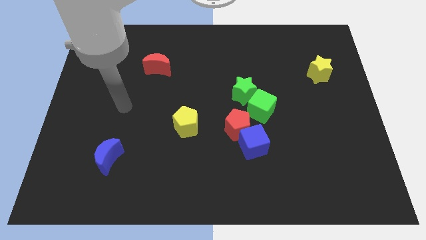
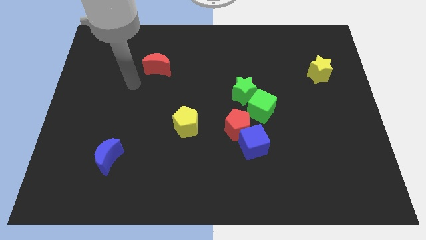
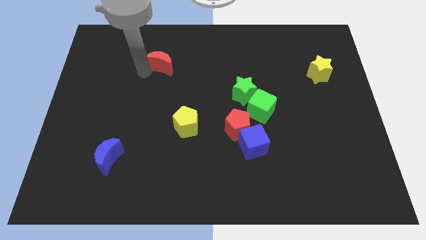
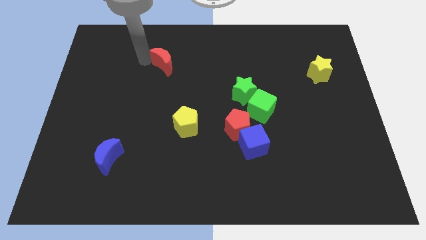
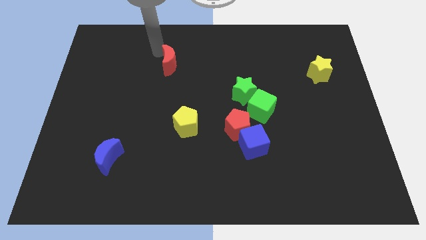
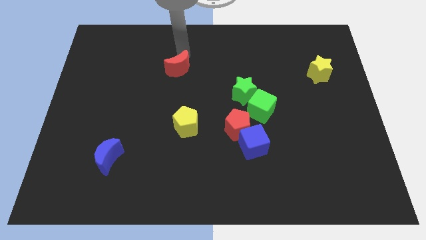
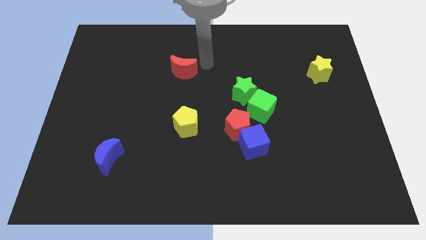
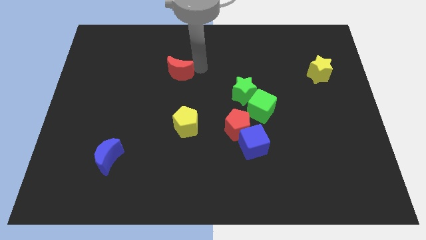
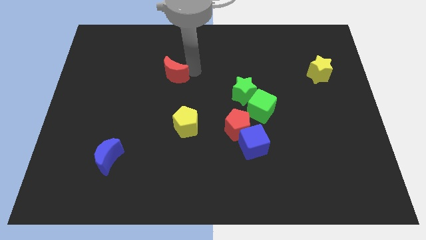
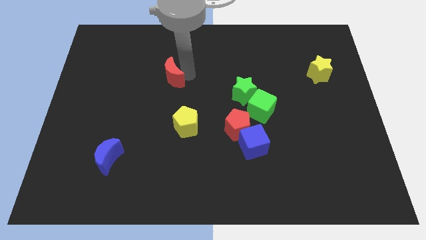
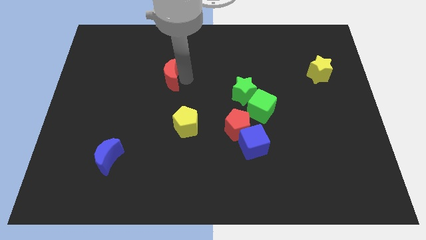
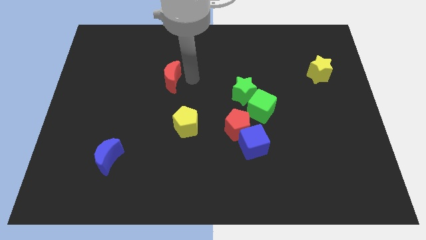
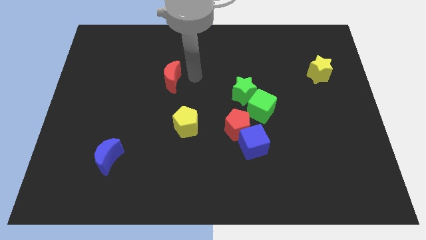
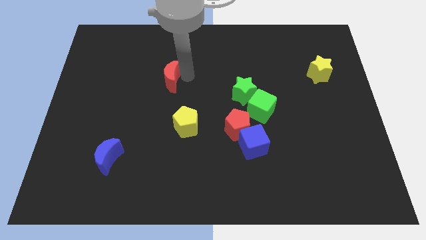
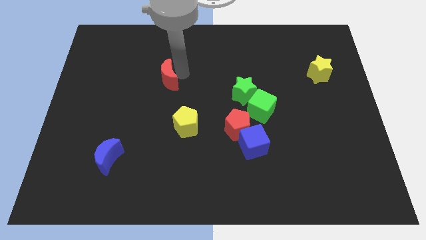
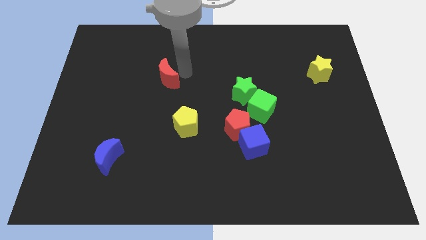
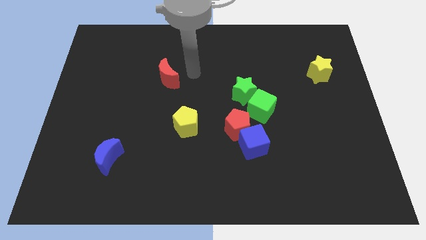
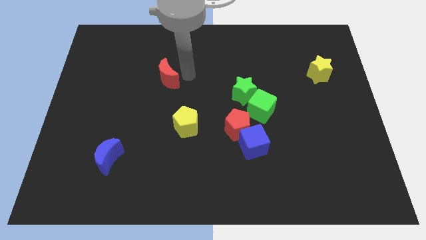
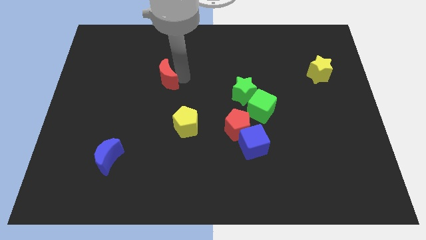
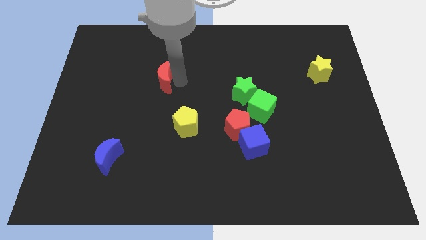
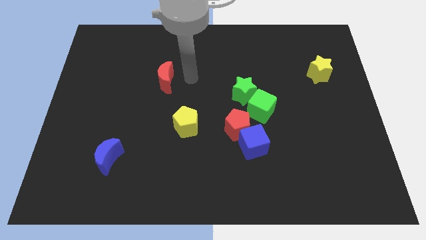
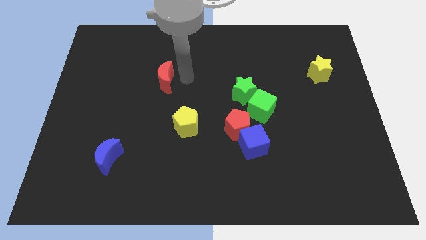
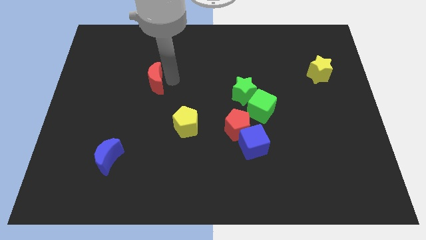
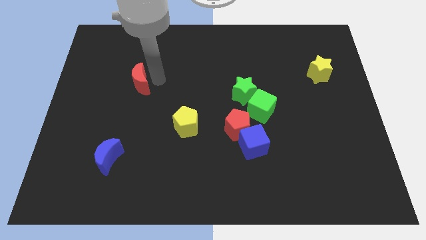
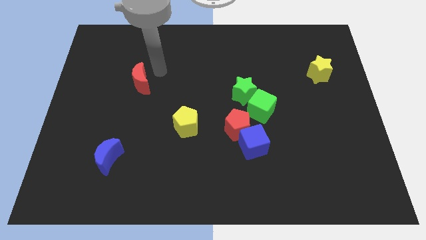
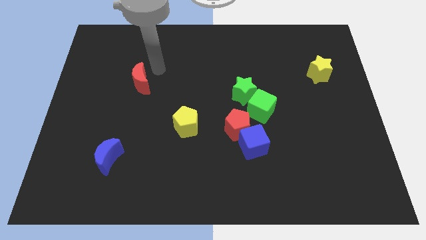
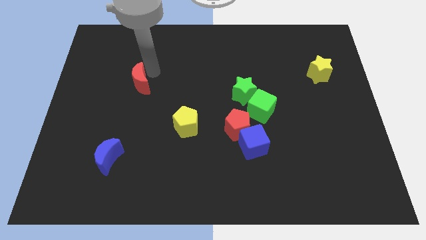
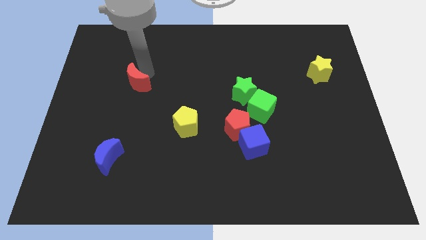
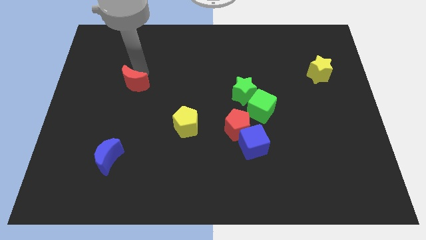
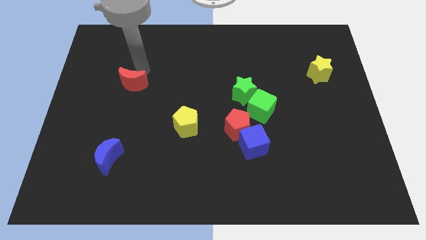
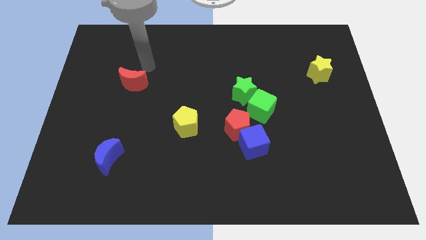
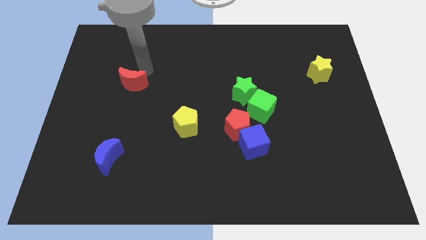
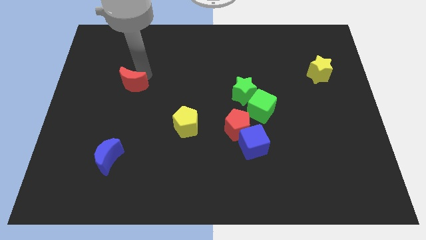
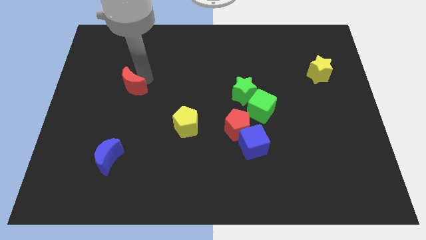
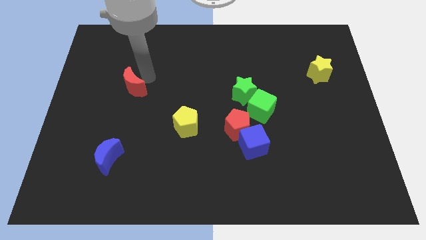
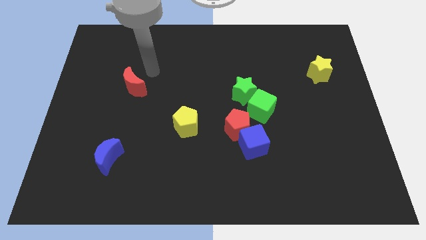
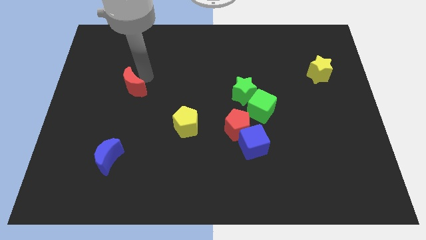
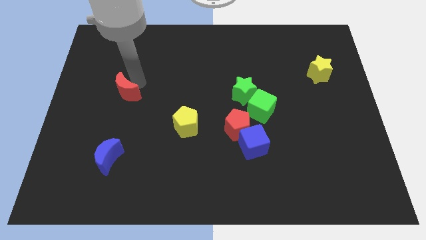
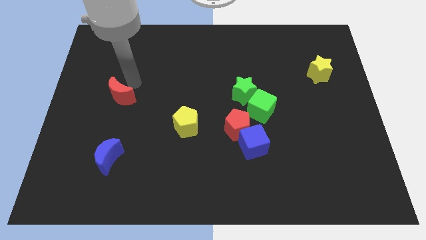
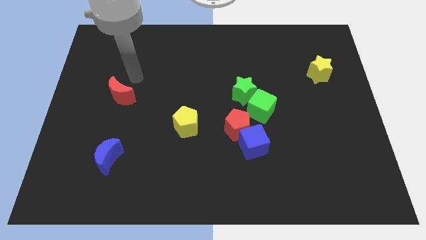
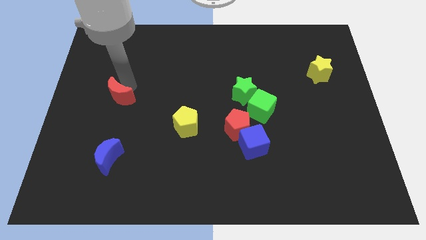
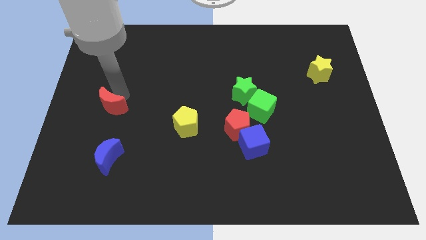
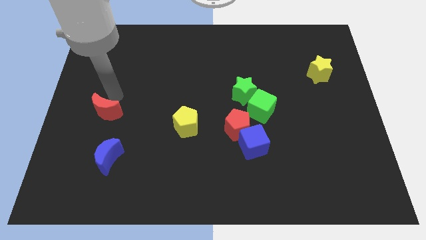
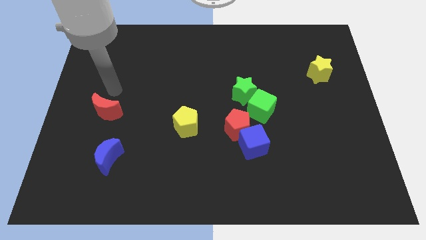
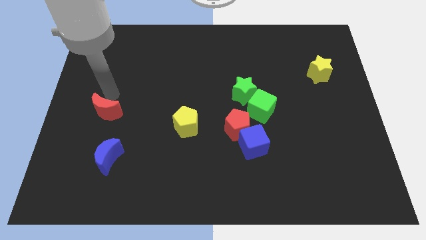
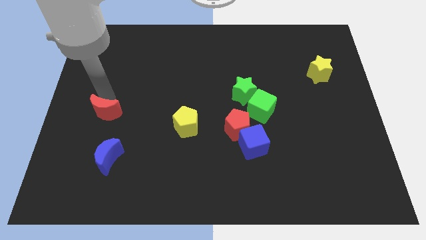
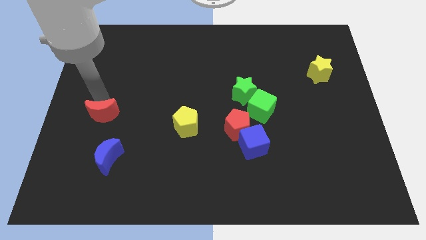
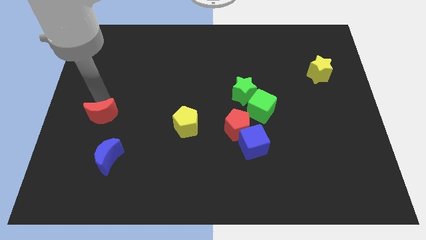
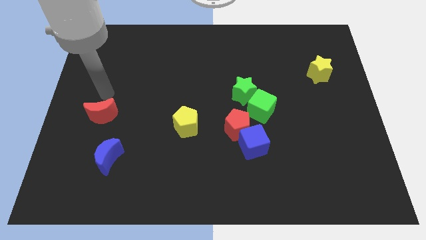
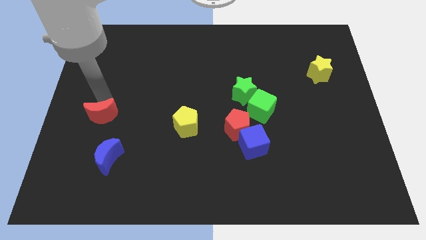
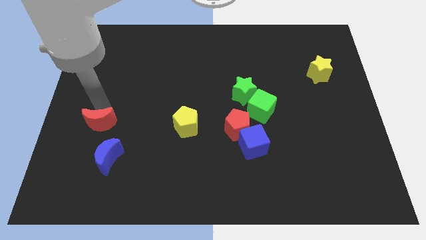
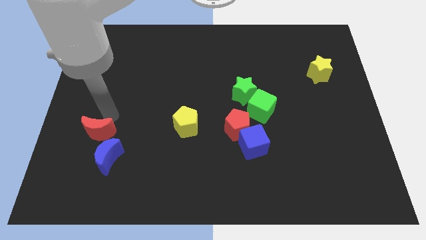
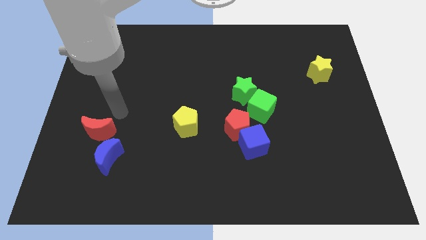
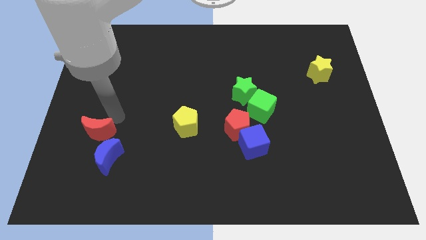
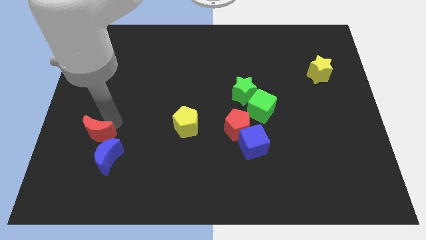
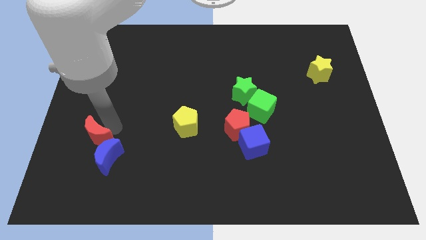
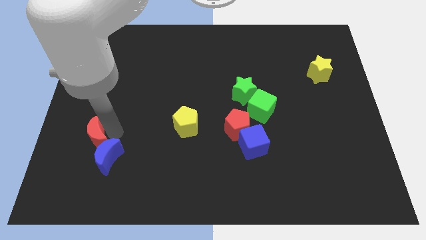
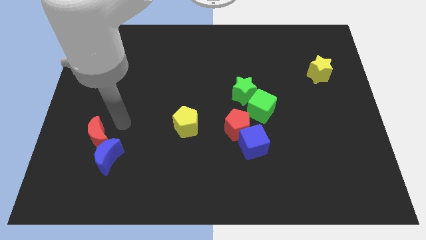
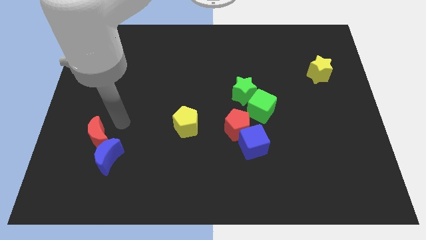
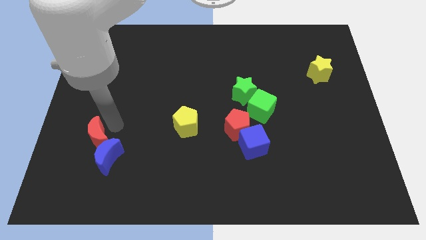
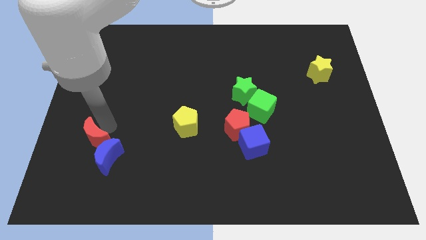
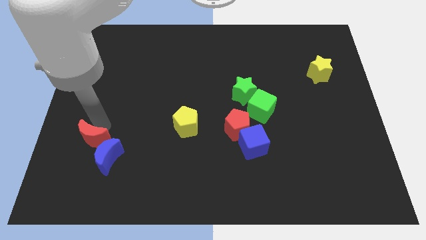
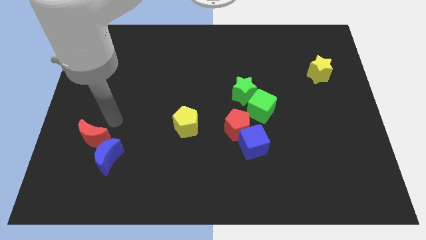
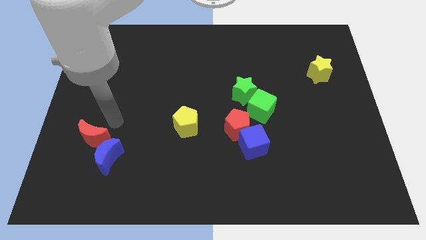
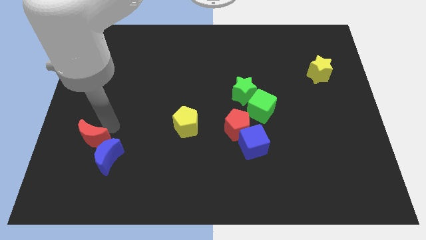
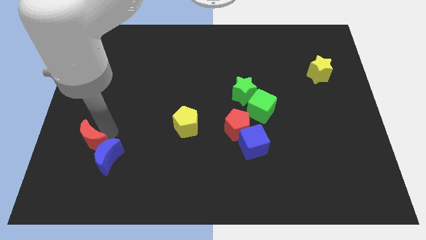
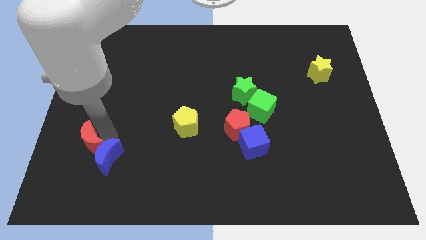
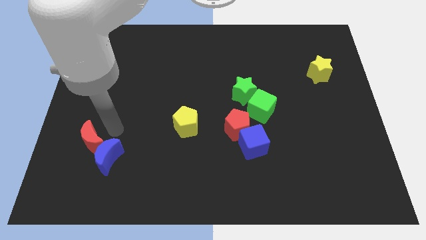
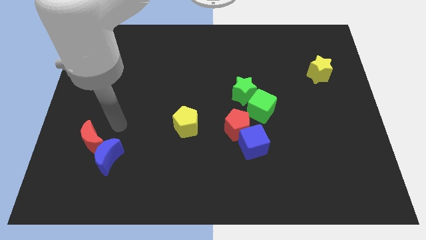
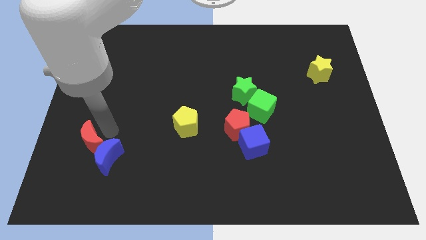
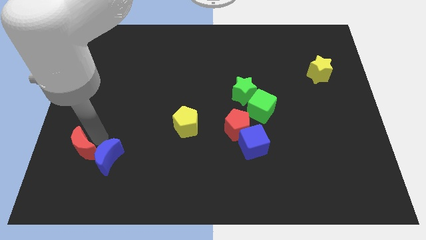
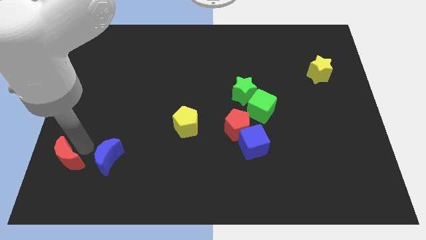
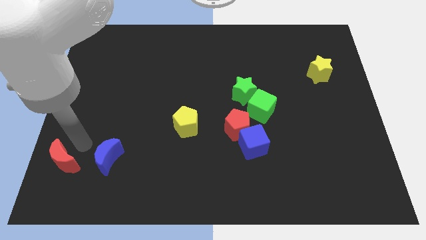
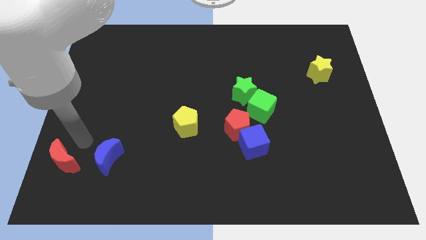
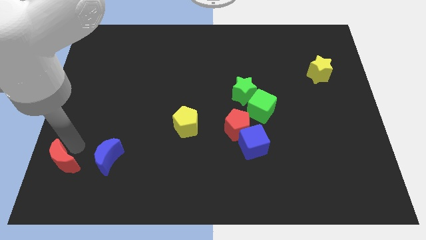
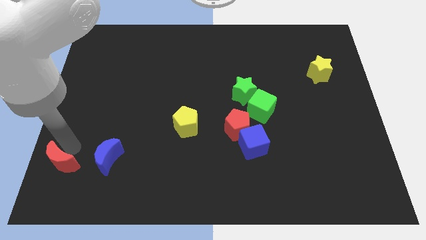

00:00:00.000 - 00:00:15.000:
push the red moon to the lower left corner
